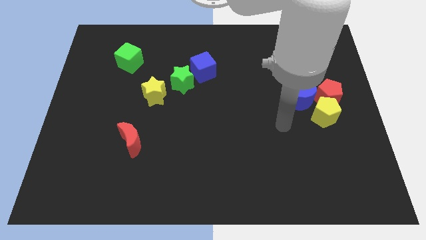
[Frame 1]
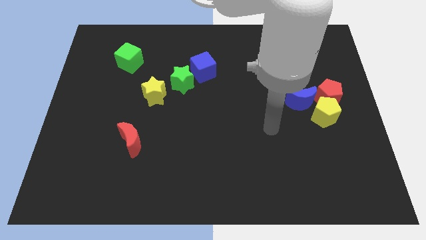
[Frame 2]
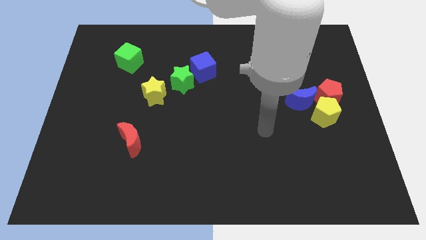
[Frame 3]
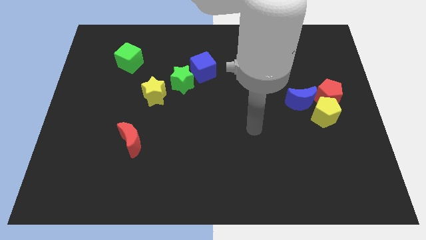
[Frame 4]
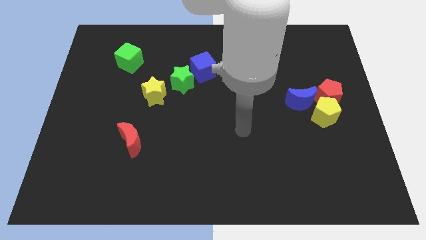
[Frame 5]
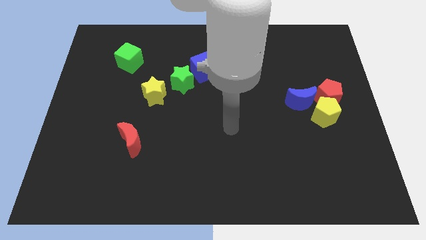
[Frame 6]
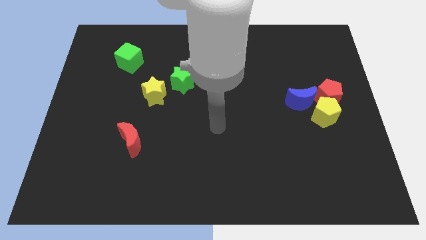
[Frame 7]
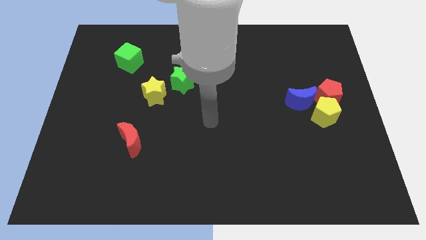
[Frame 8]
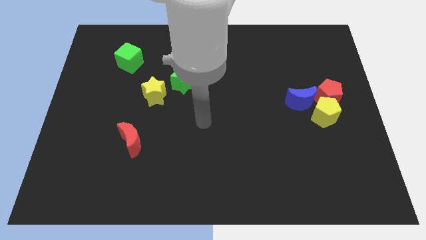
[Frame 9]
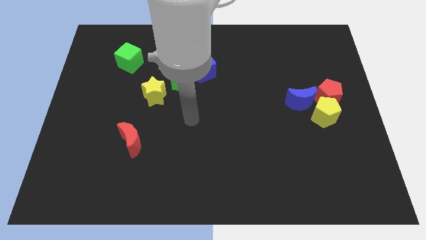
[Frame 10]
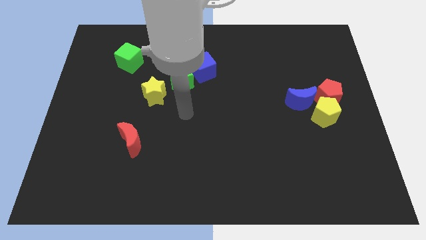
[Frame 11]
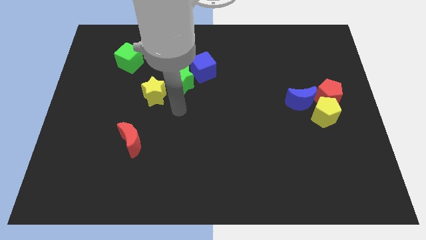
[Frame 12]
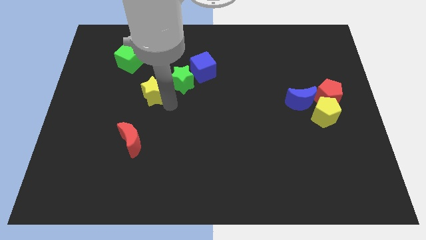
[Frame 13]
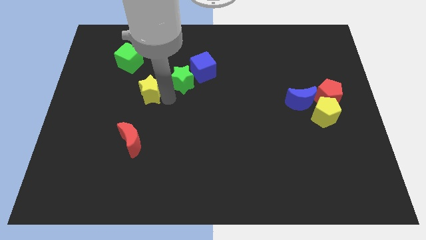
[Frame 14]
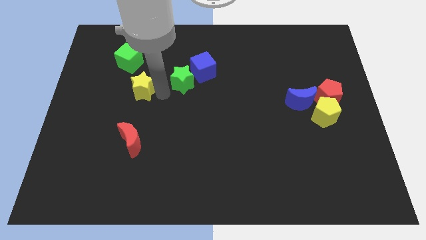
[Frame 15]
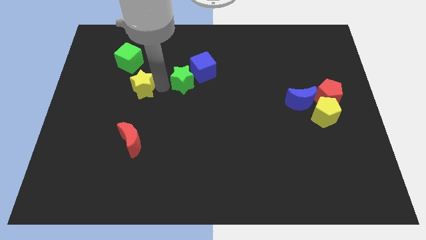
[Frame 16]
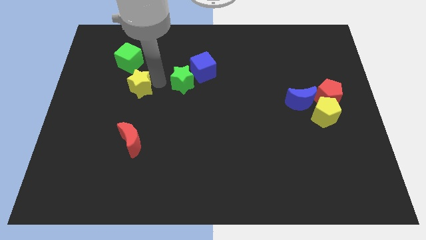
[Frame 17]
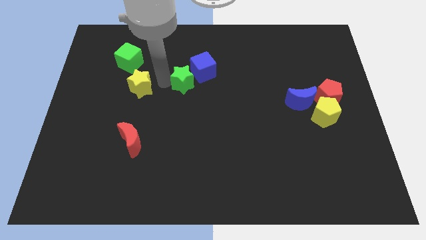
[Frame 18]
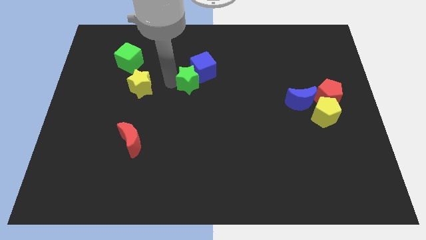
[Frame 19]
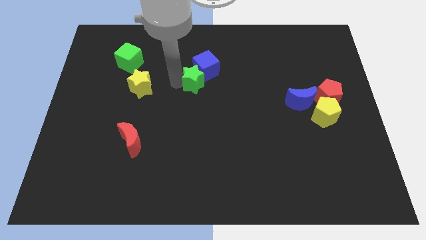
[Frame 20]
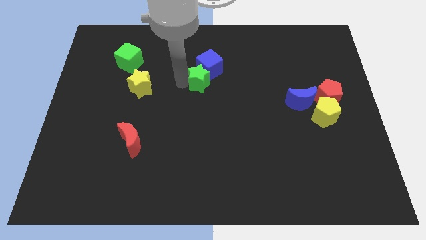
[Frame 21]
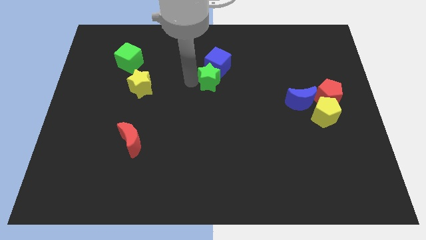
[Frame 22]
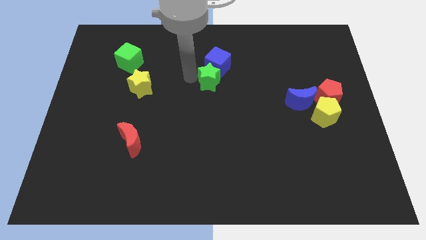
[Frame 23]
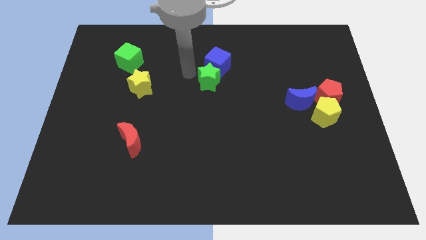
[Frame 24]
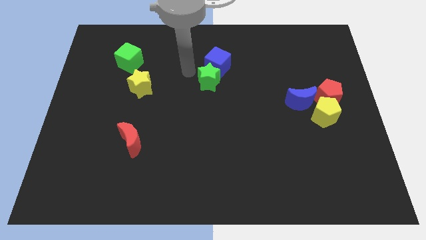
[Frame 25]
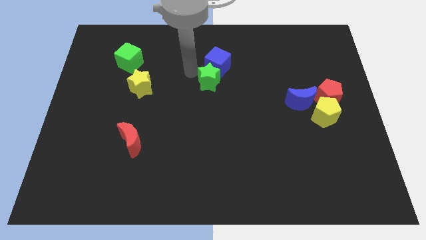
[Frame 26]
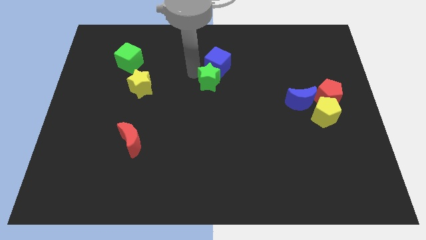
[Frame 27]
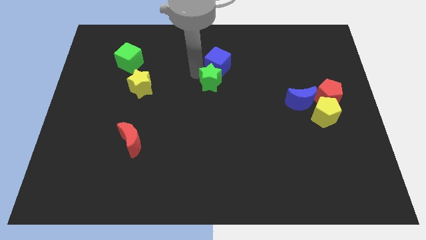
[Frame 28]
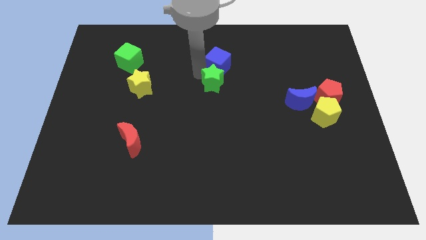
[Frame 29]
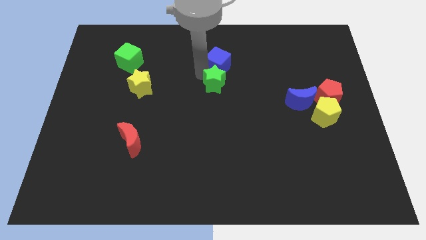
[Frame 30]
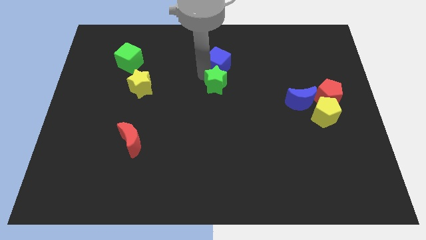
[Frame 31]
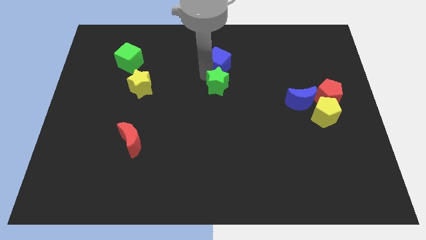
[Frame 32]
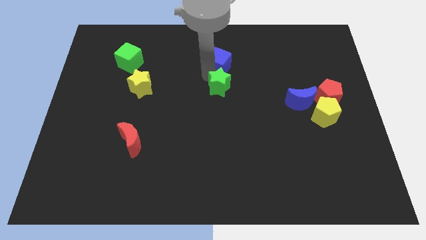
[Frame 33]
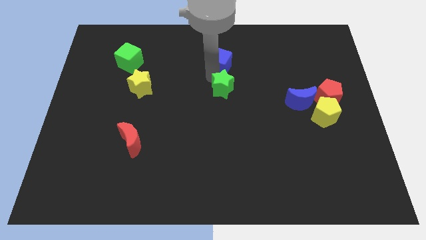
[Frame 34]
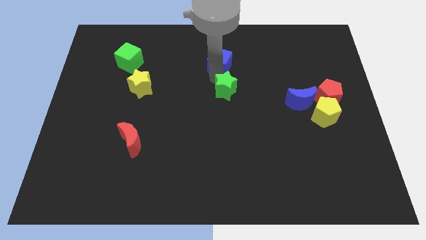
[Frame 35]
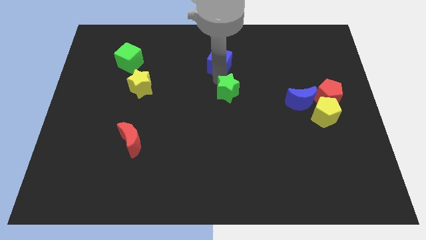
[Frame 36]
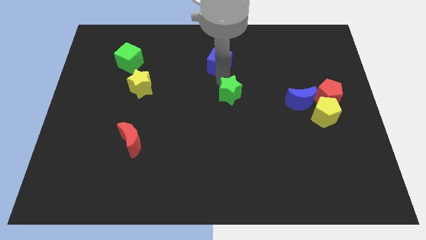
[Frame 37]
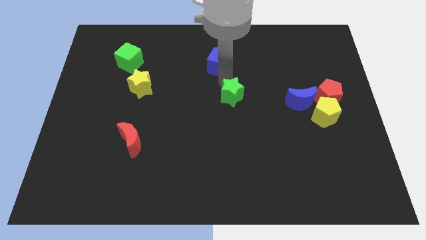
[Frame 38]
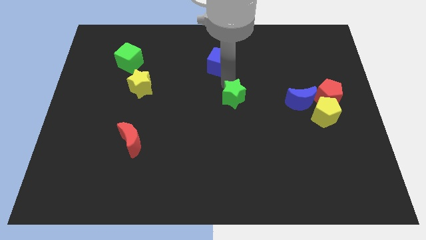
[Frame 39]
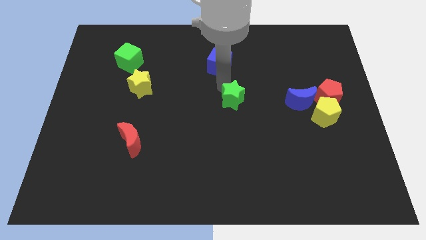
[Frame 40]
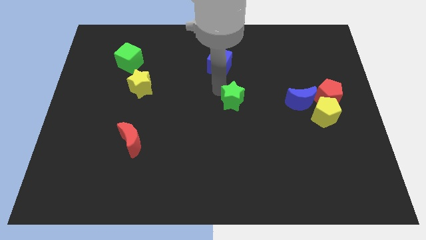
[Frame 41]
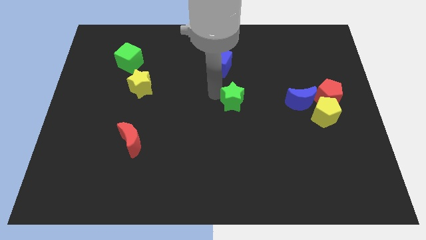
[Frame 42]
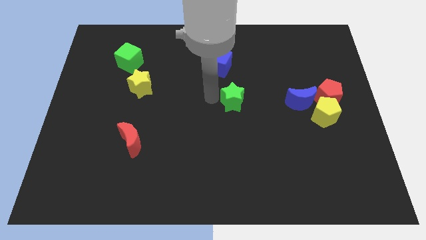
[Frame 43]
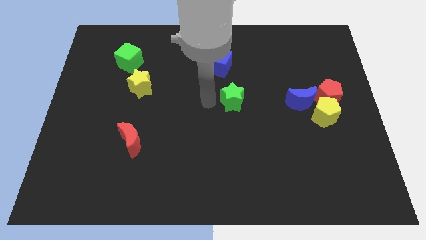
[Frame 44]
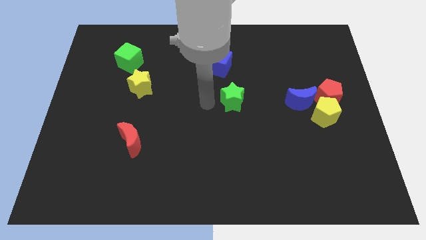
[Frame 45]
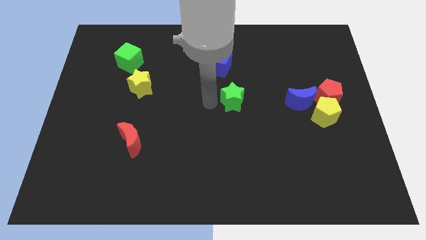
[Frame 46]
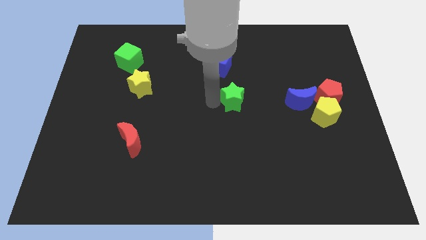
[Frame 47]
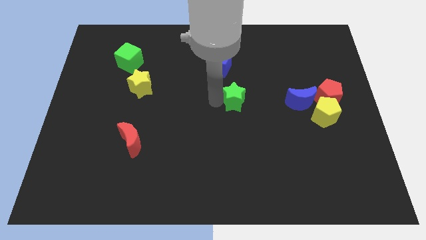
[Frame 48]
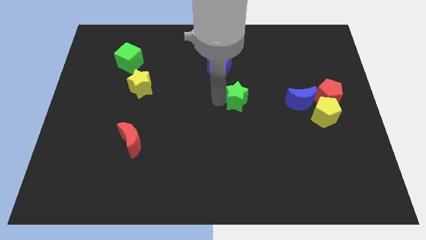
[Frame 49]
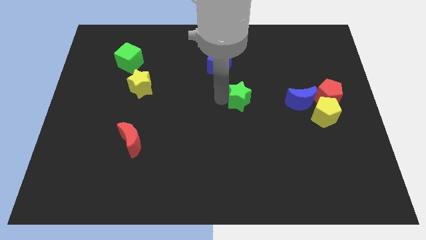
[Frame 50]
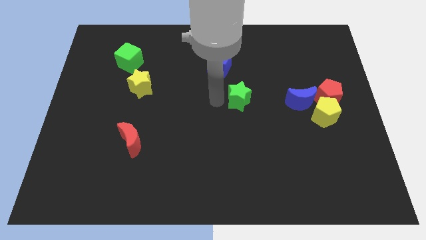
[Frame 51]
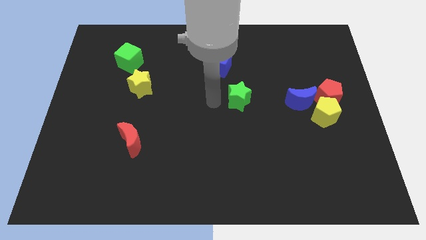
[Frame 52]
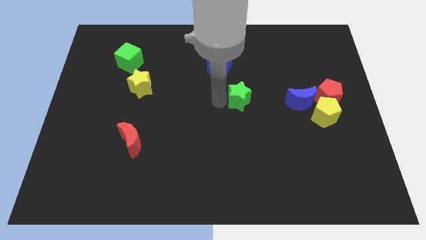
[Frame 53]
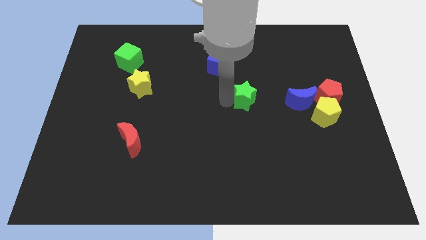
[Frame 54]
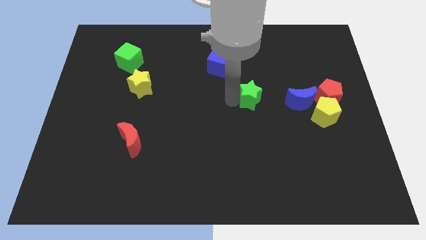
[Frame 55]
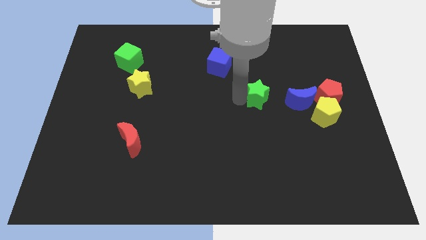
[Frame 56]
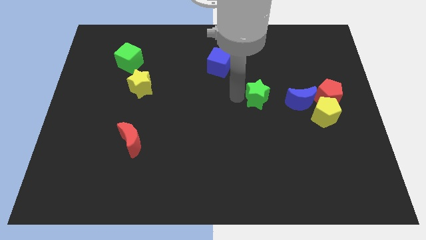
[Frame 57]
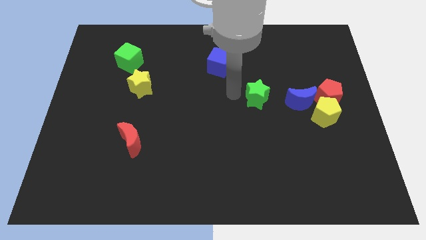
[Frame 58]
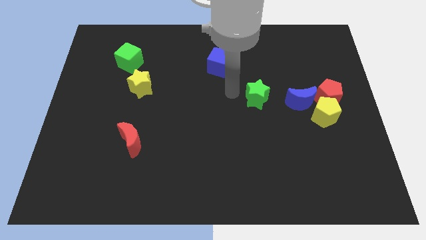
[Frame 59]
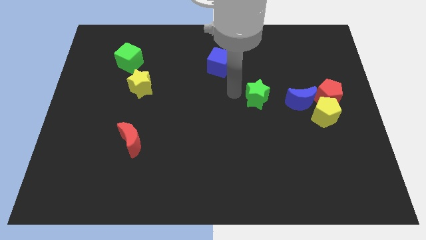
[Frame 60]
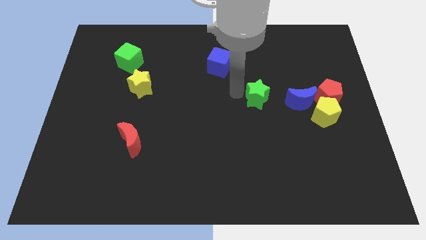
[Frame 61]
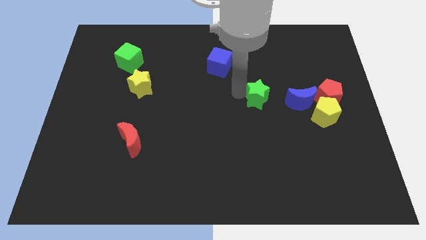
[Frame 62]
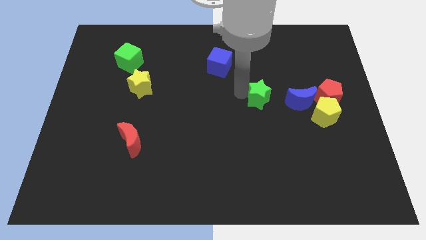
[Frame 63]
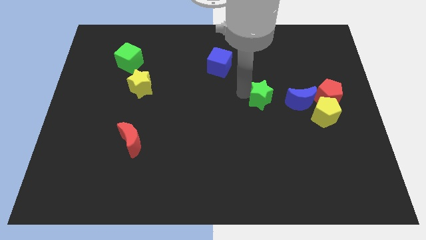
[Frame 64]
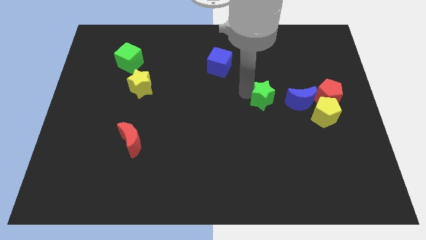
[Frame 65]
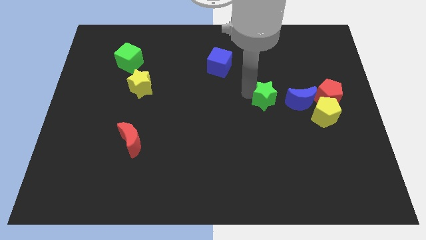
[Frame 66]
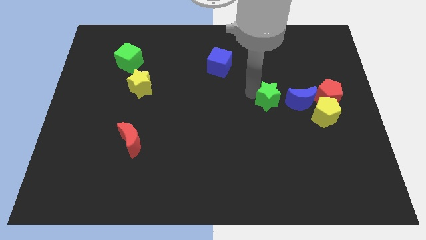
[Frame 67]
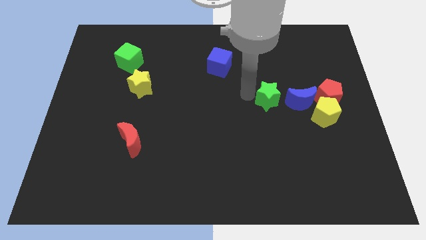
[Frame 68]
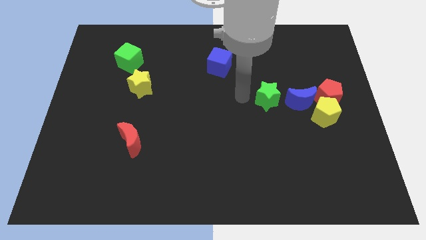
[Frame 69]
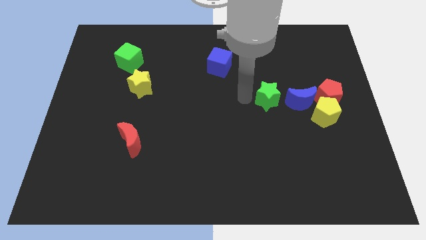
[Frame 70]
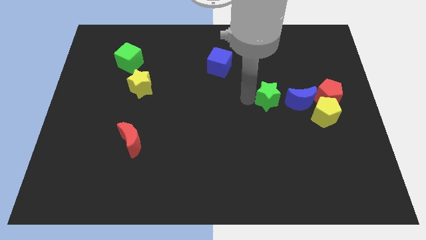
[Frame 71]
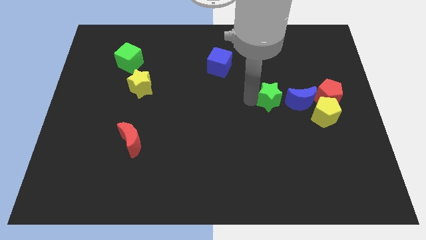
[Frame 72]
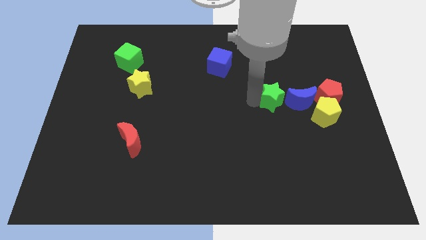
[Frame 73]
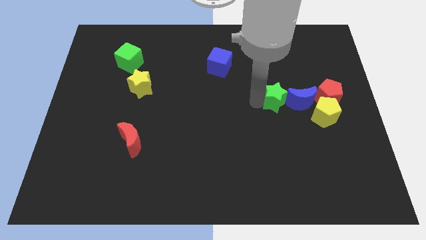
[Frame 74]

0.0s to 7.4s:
move the green star next to the blue moon
